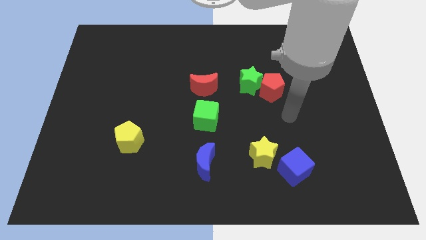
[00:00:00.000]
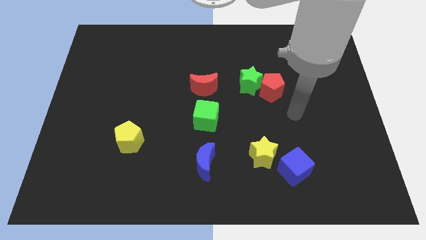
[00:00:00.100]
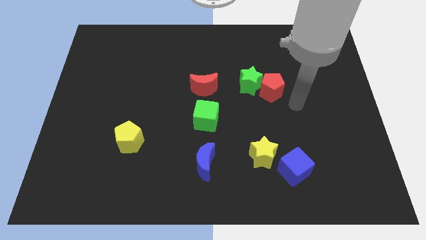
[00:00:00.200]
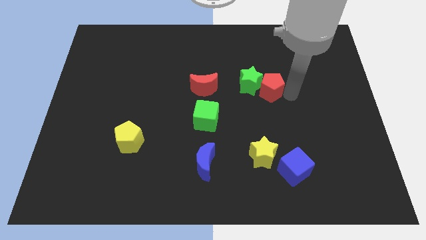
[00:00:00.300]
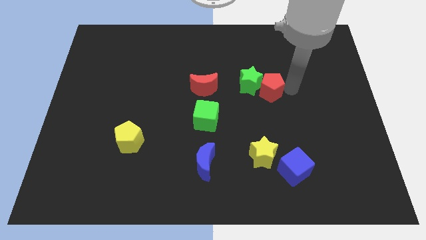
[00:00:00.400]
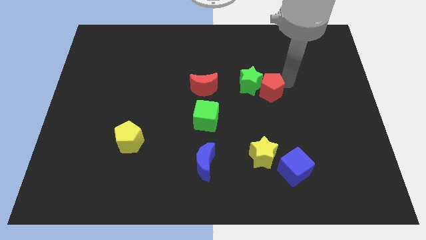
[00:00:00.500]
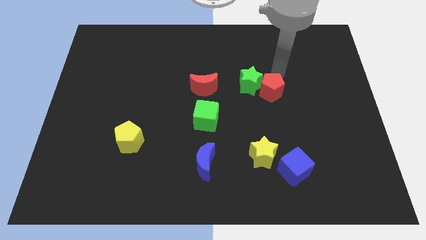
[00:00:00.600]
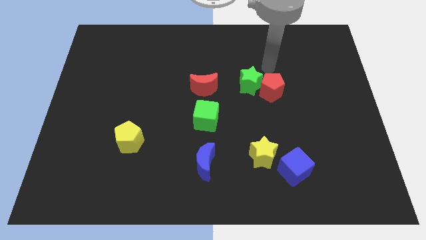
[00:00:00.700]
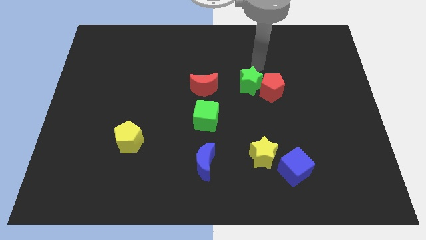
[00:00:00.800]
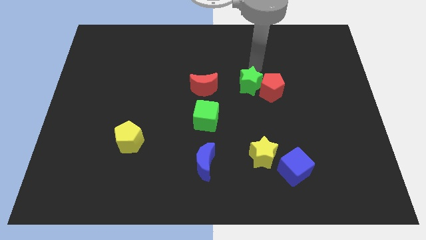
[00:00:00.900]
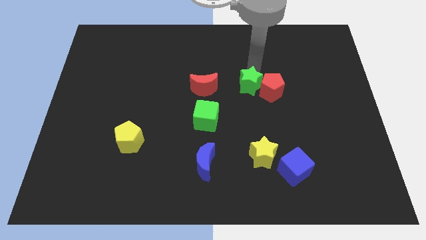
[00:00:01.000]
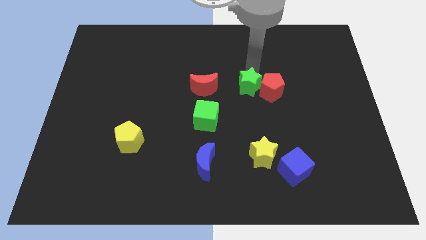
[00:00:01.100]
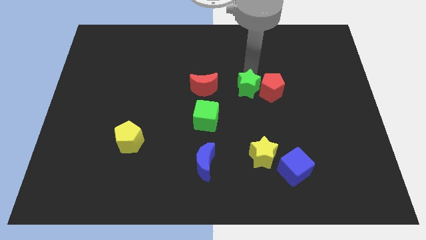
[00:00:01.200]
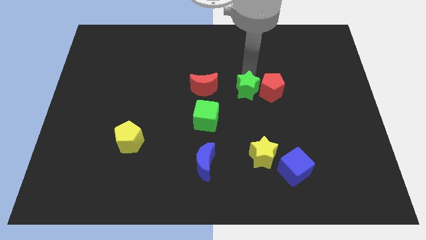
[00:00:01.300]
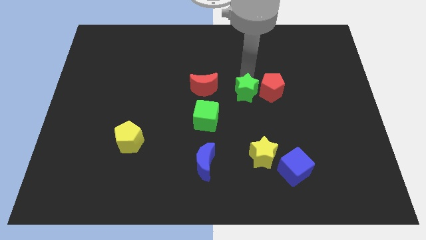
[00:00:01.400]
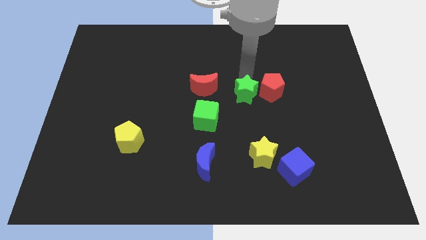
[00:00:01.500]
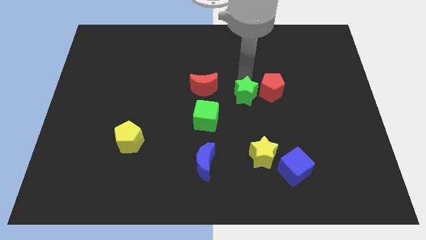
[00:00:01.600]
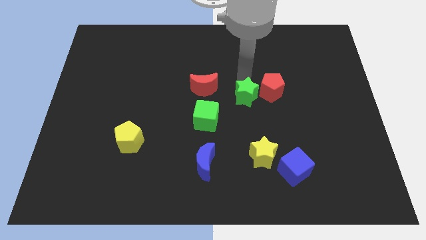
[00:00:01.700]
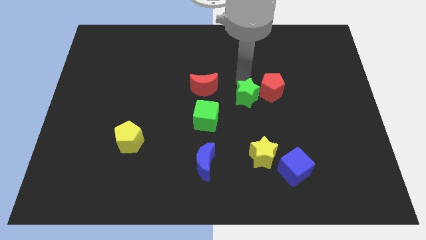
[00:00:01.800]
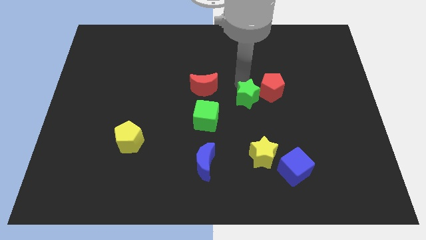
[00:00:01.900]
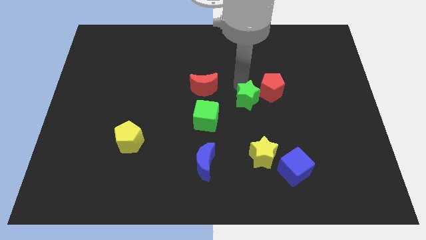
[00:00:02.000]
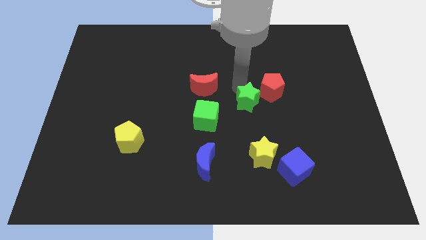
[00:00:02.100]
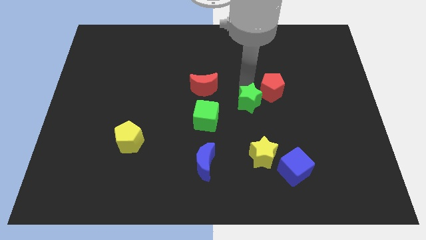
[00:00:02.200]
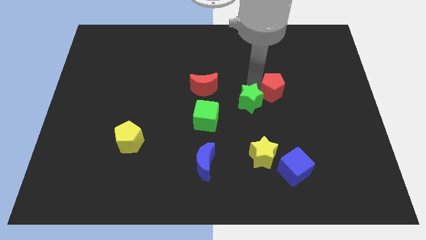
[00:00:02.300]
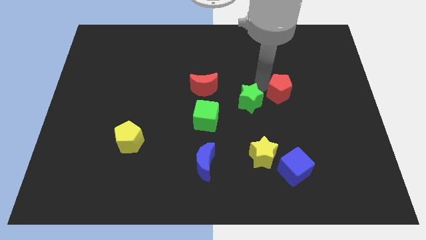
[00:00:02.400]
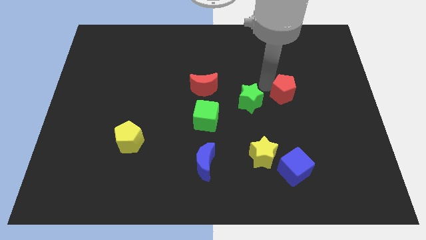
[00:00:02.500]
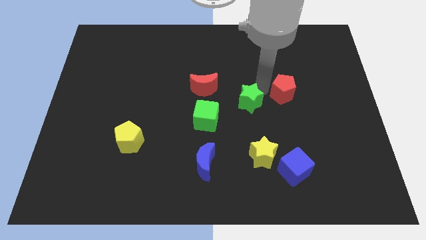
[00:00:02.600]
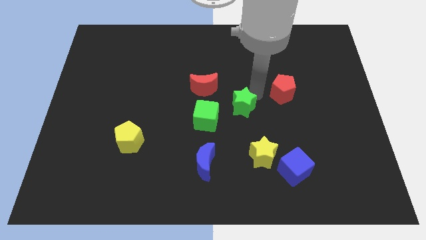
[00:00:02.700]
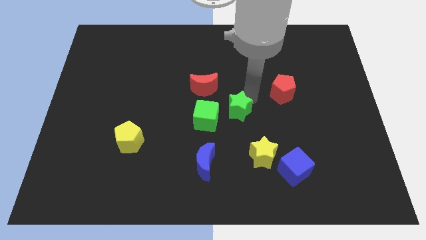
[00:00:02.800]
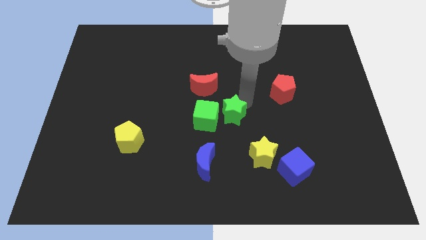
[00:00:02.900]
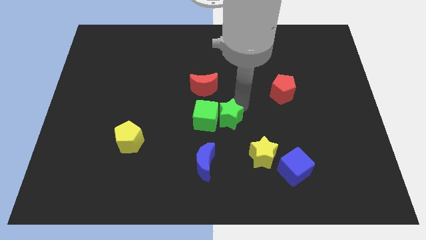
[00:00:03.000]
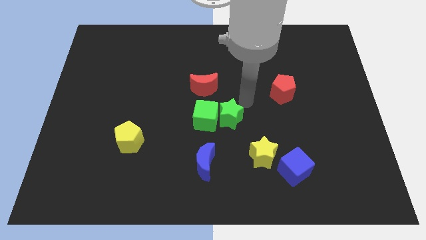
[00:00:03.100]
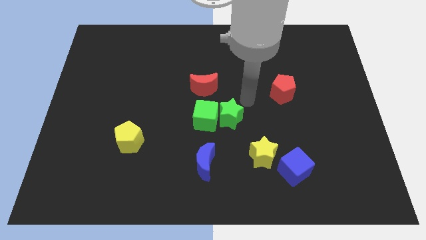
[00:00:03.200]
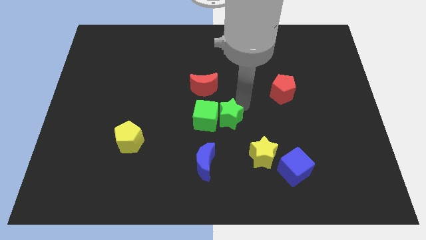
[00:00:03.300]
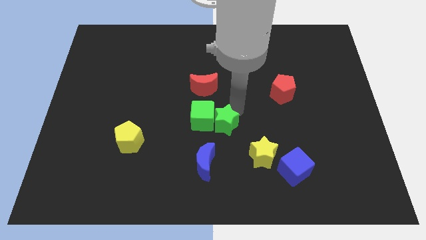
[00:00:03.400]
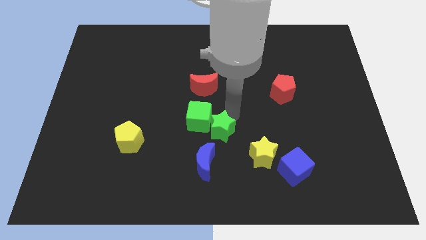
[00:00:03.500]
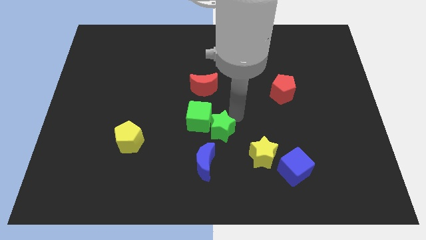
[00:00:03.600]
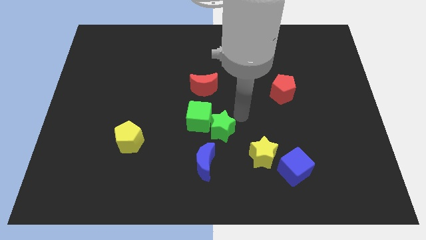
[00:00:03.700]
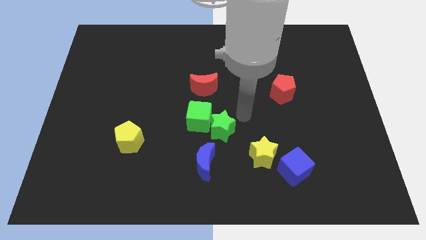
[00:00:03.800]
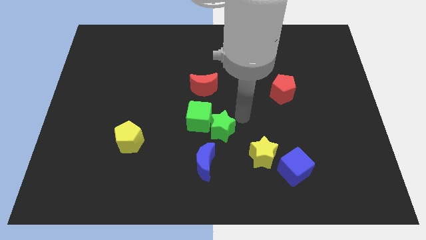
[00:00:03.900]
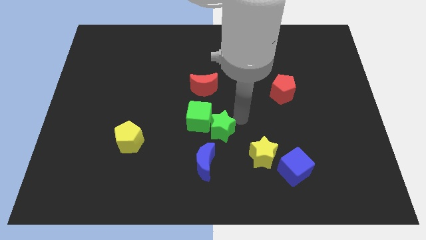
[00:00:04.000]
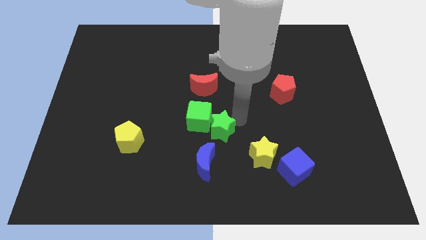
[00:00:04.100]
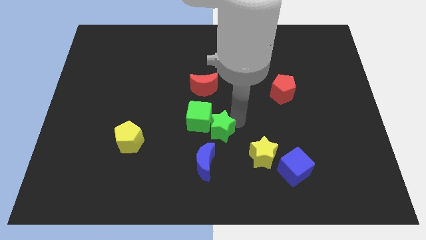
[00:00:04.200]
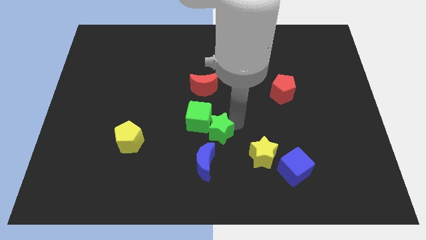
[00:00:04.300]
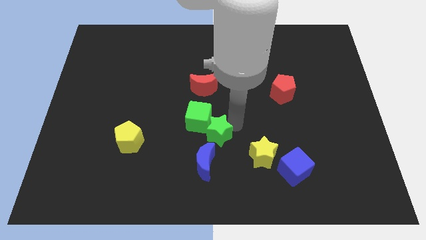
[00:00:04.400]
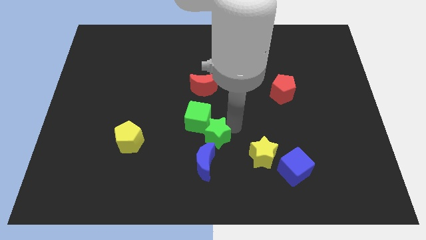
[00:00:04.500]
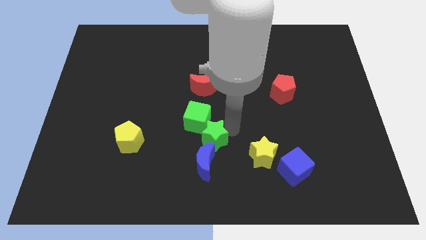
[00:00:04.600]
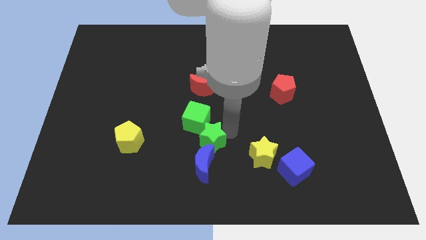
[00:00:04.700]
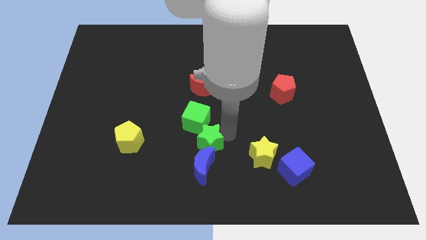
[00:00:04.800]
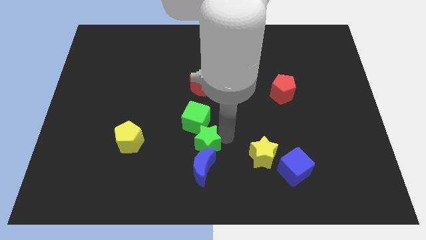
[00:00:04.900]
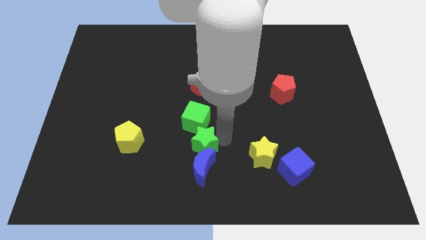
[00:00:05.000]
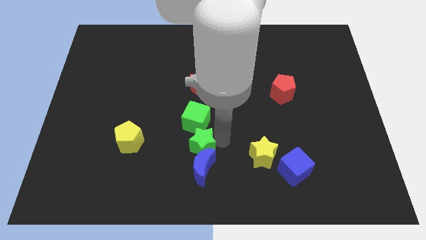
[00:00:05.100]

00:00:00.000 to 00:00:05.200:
slide the green star down and then left

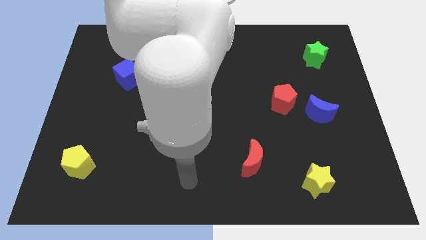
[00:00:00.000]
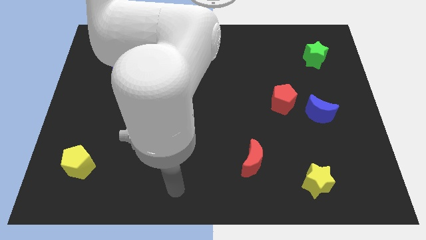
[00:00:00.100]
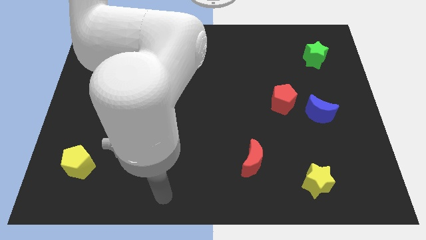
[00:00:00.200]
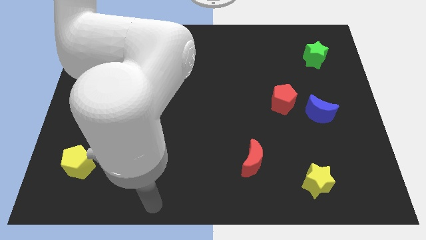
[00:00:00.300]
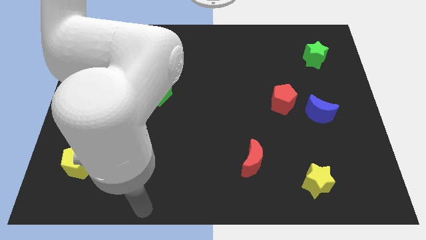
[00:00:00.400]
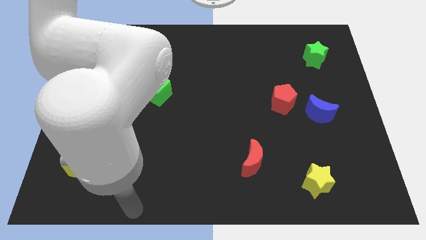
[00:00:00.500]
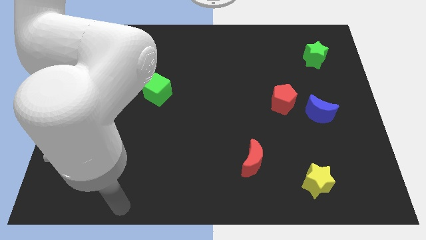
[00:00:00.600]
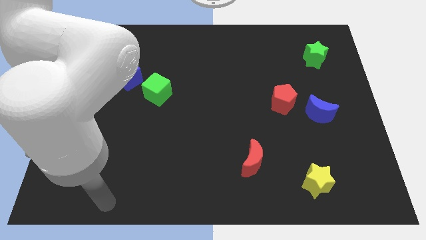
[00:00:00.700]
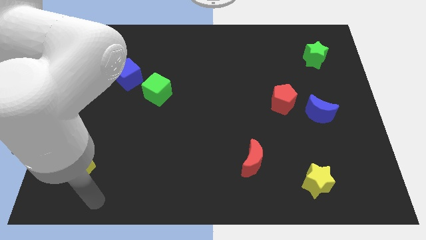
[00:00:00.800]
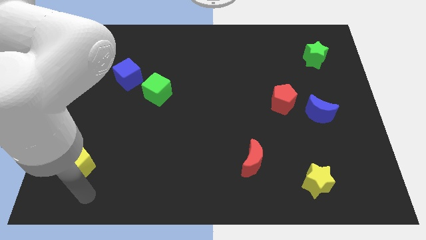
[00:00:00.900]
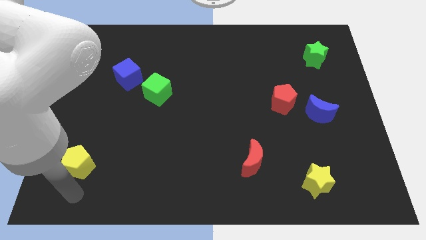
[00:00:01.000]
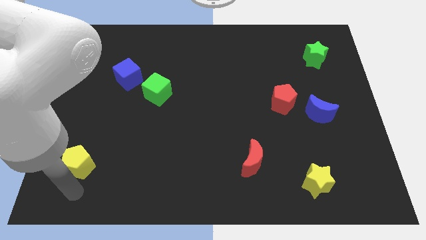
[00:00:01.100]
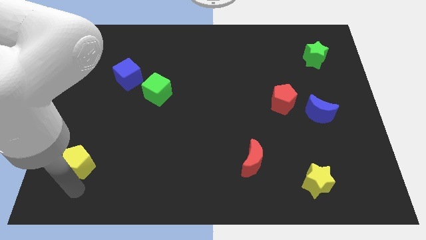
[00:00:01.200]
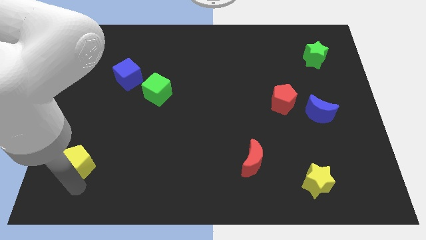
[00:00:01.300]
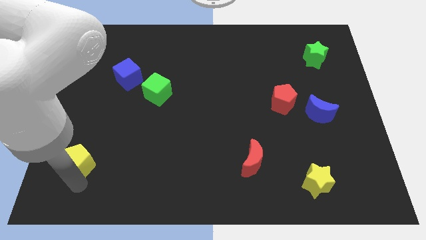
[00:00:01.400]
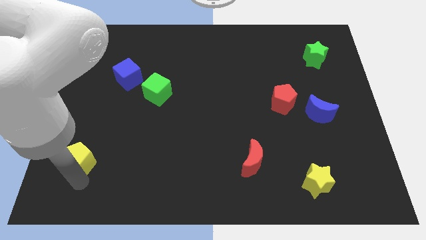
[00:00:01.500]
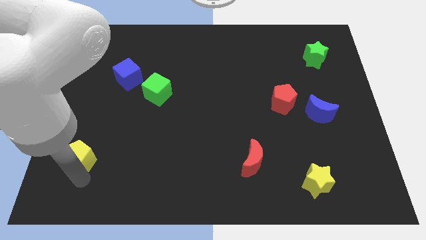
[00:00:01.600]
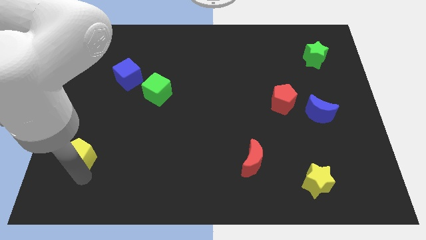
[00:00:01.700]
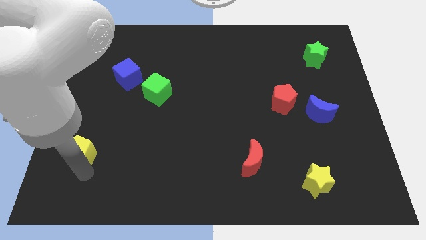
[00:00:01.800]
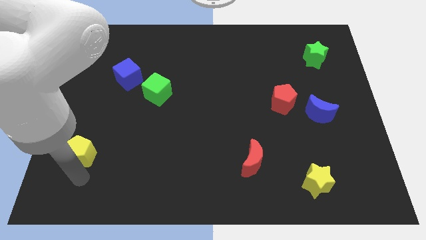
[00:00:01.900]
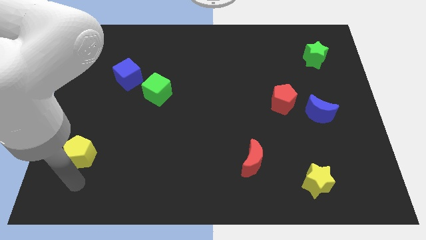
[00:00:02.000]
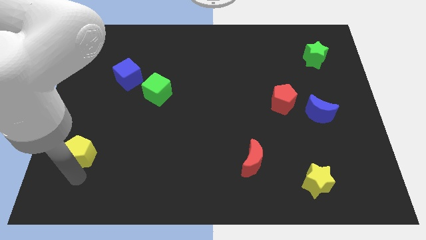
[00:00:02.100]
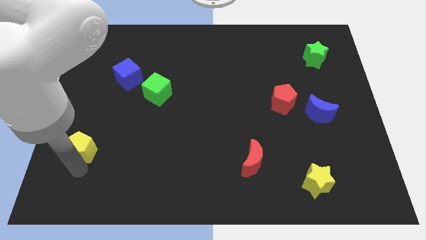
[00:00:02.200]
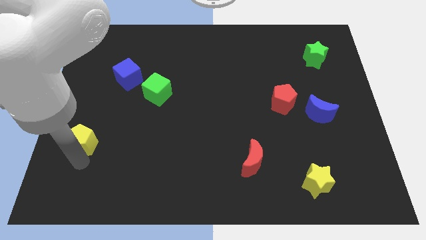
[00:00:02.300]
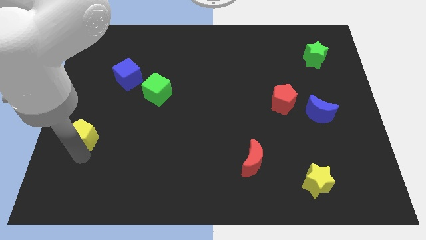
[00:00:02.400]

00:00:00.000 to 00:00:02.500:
move the yellow pentagon a little bit upwards

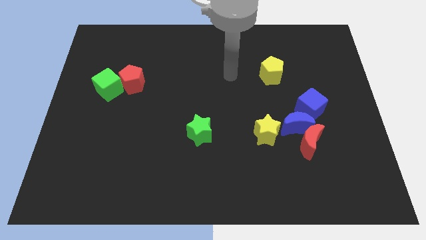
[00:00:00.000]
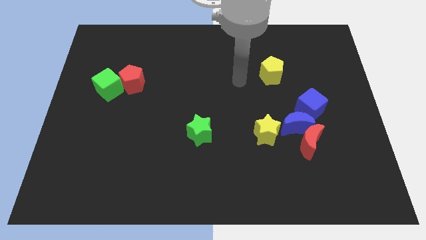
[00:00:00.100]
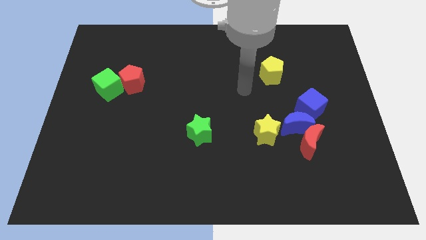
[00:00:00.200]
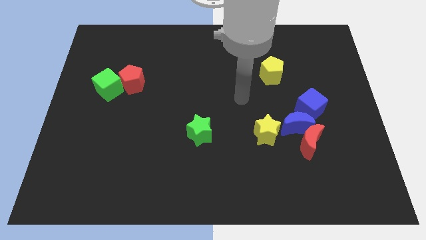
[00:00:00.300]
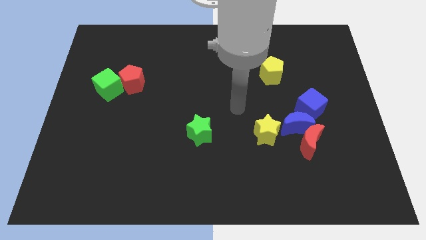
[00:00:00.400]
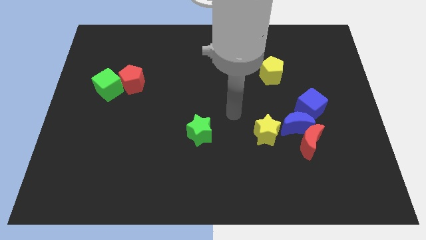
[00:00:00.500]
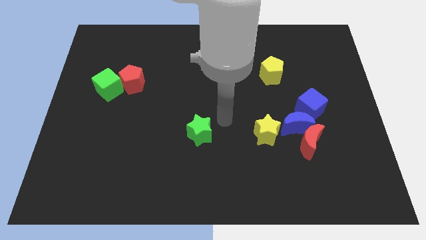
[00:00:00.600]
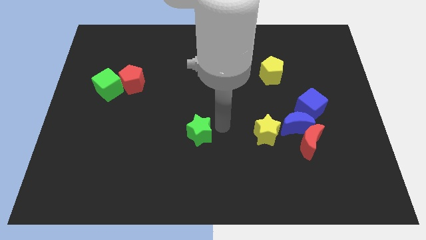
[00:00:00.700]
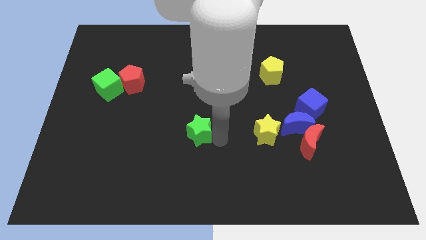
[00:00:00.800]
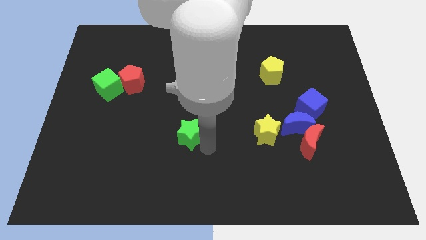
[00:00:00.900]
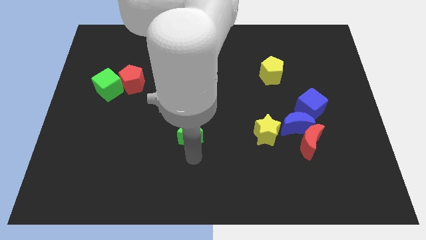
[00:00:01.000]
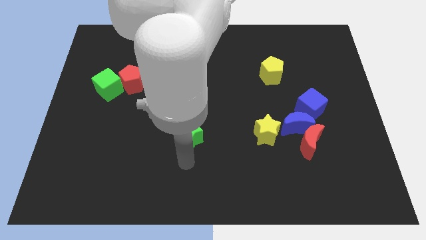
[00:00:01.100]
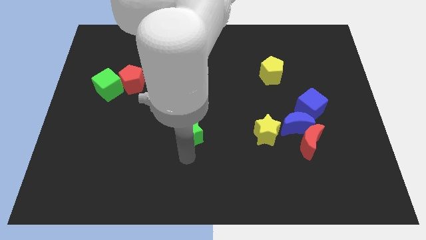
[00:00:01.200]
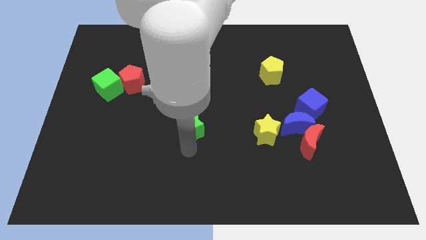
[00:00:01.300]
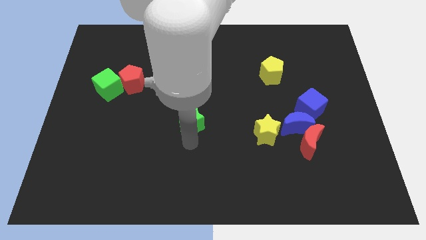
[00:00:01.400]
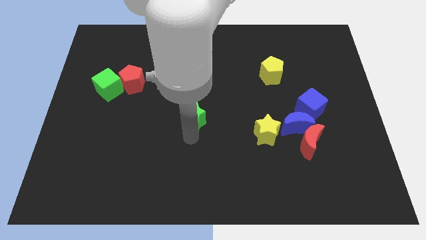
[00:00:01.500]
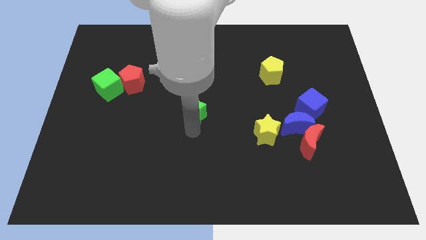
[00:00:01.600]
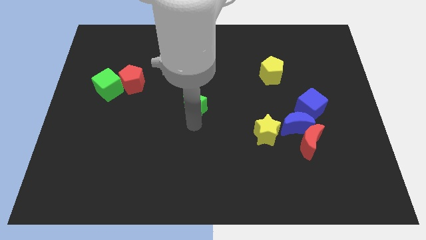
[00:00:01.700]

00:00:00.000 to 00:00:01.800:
slightly slide the green star up
